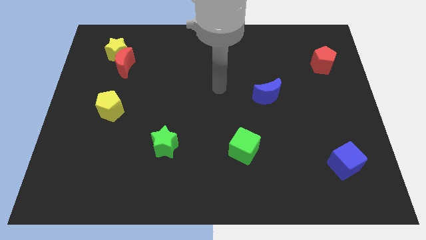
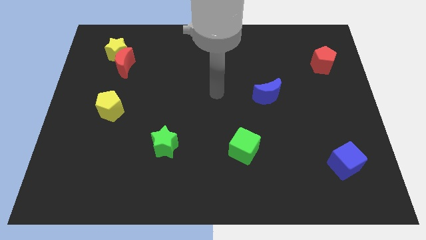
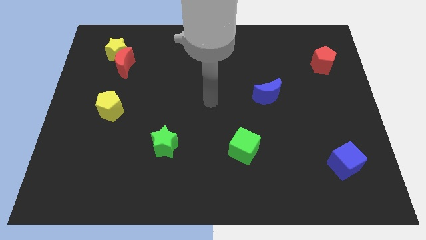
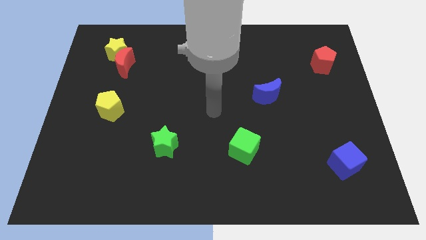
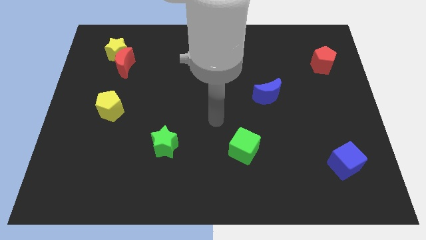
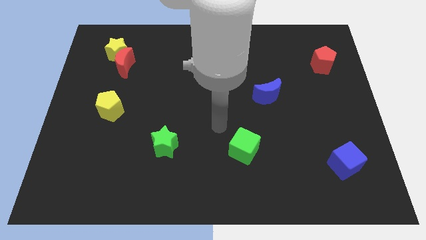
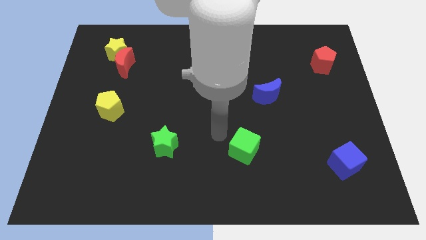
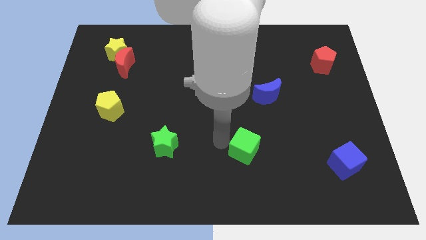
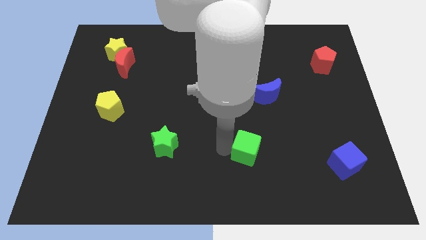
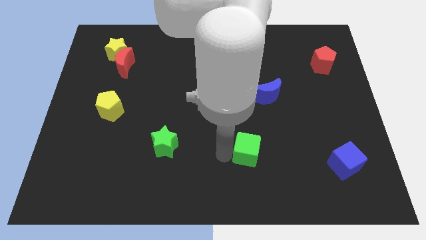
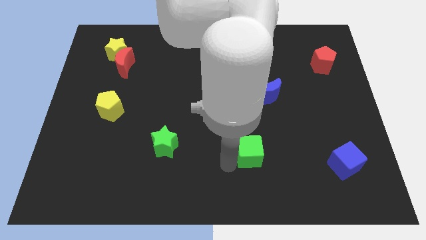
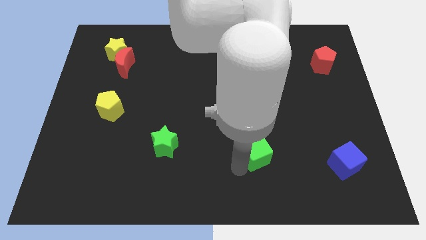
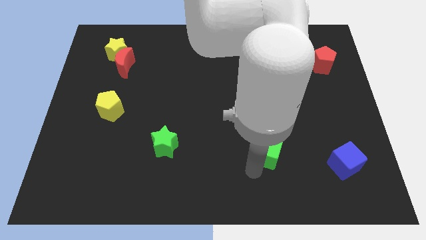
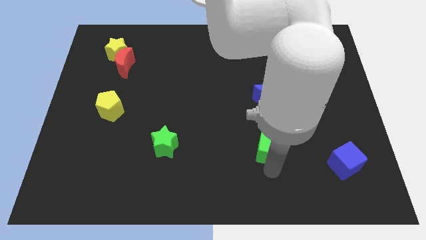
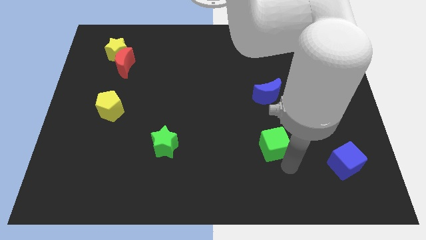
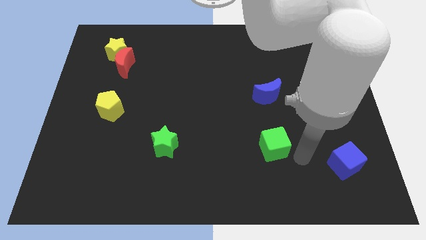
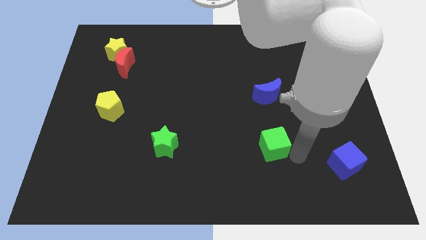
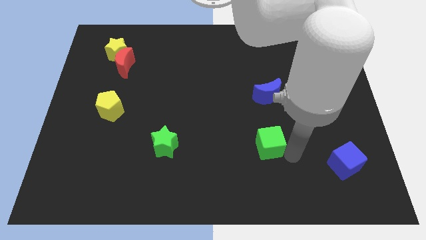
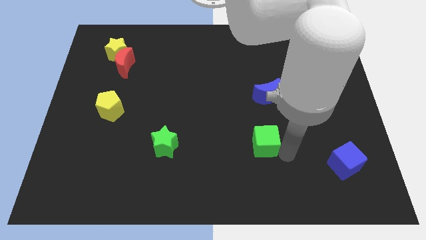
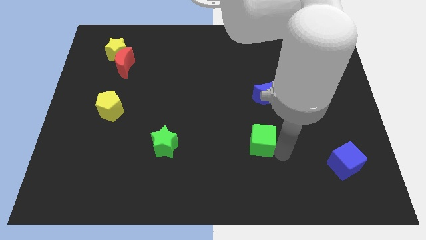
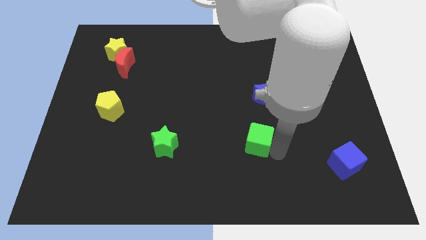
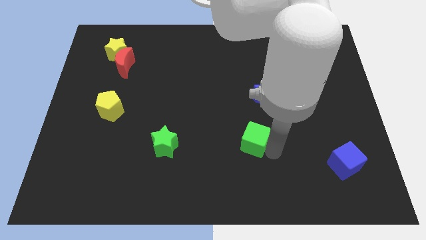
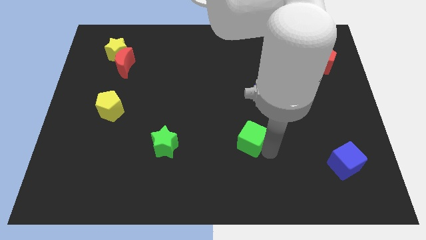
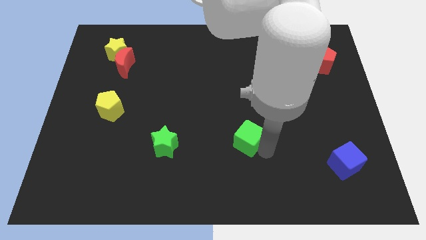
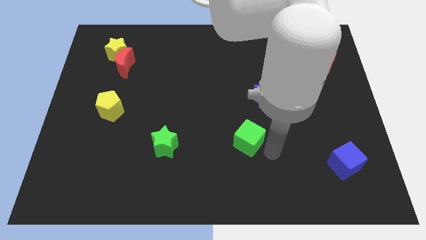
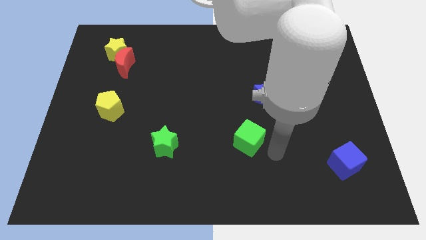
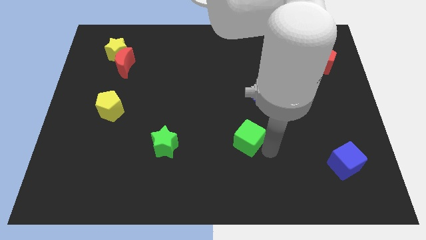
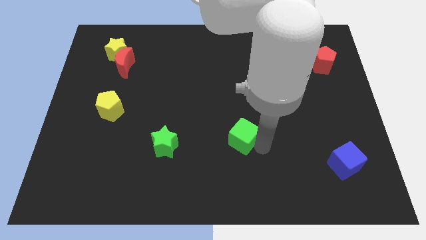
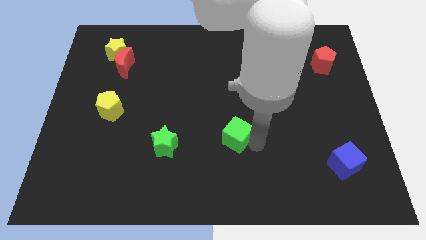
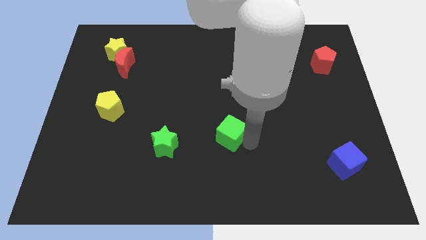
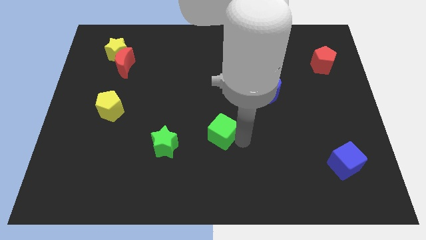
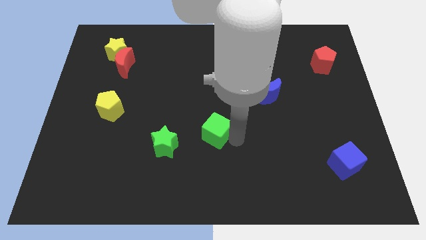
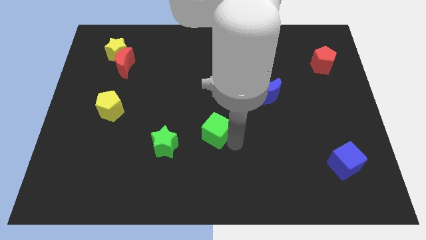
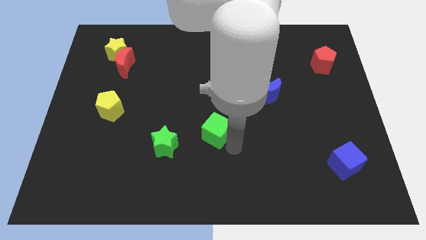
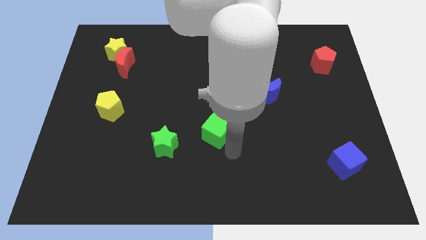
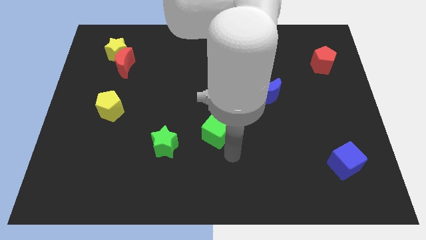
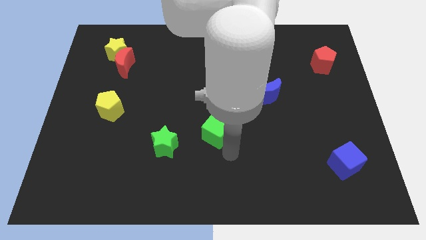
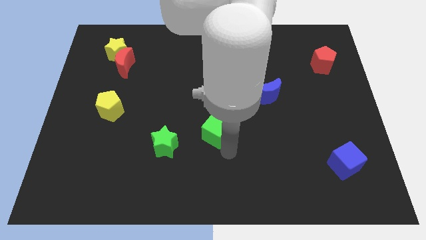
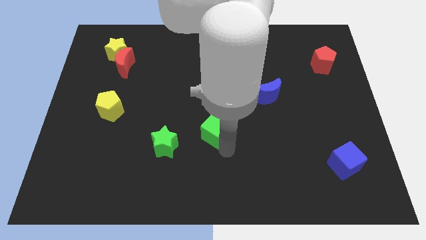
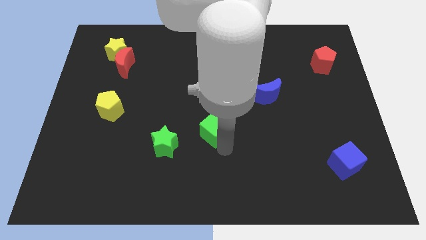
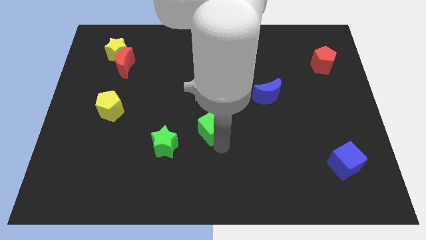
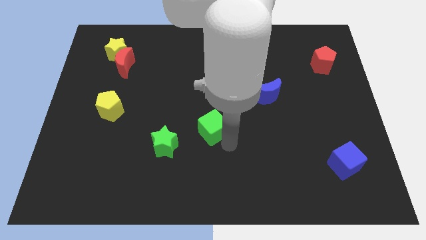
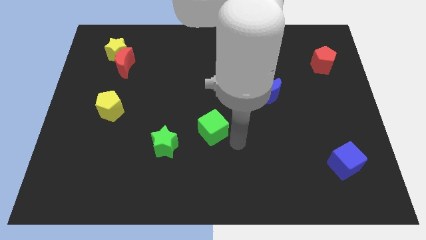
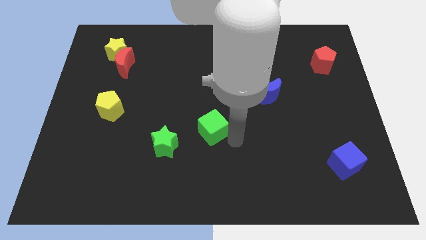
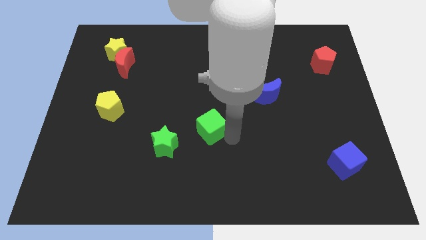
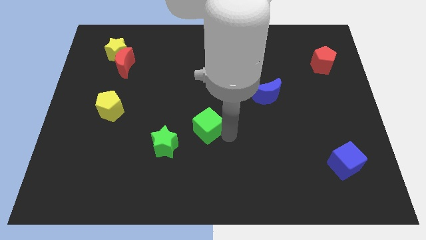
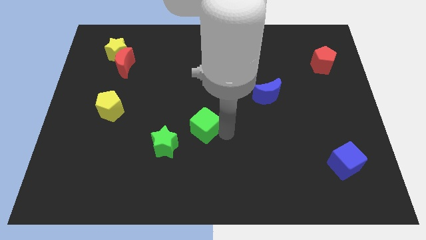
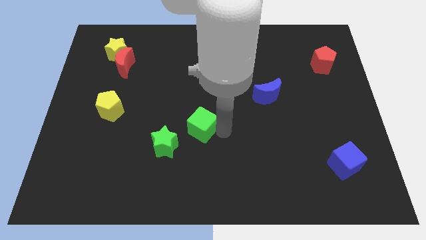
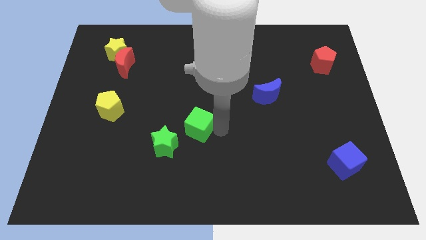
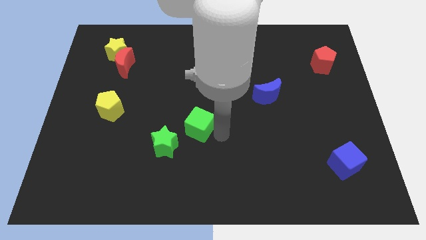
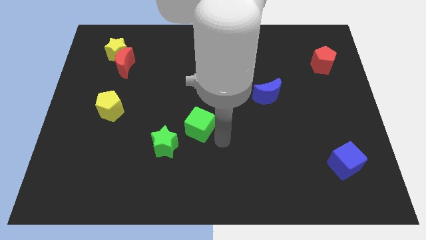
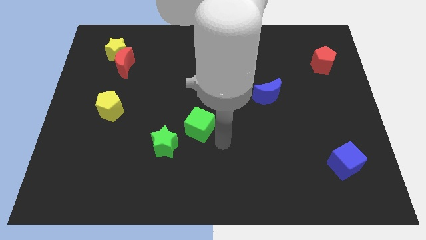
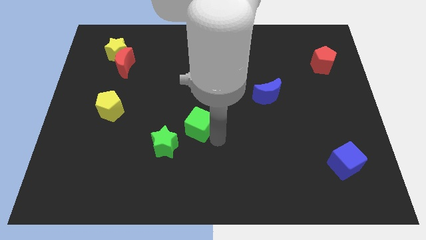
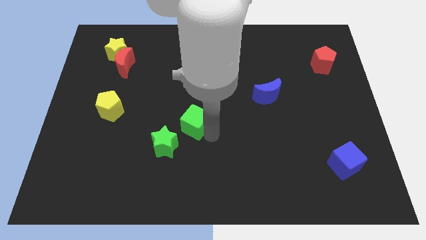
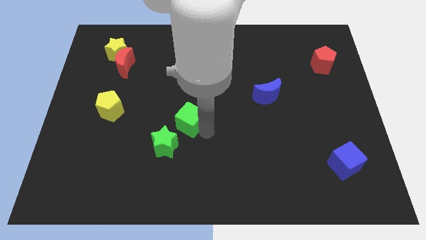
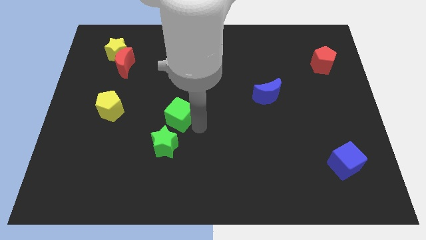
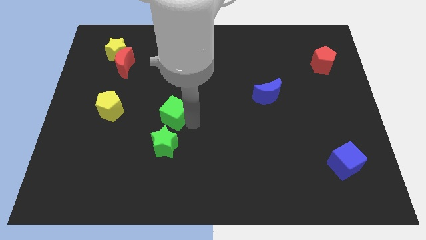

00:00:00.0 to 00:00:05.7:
push the green cube just right of the yellow pentagon

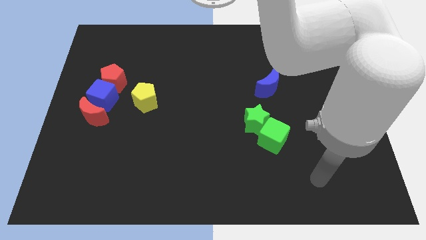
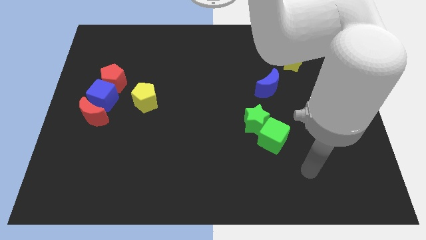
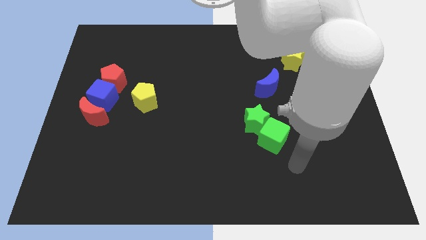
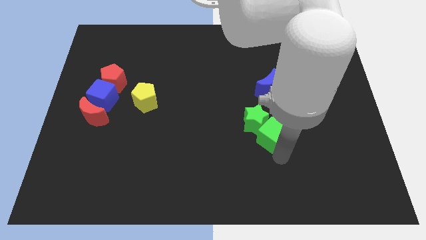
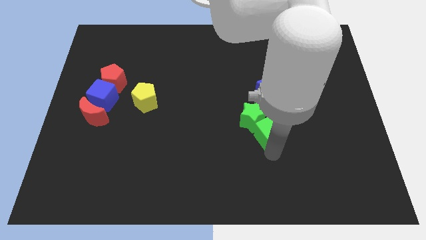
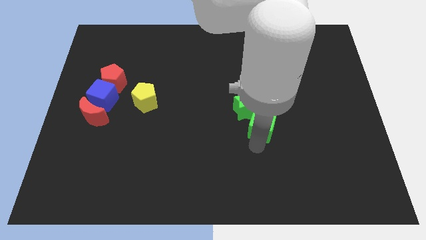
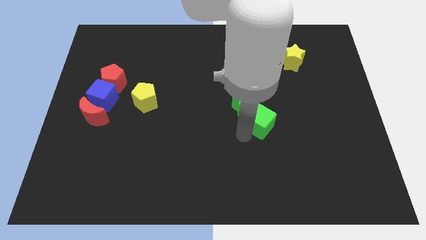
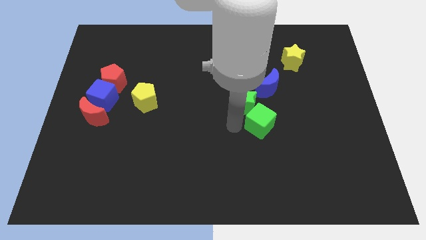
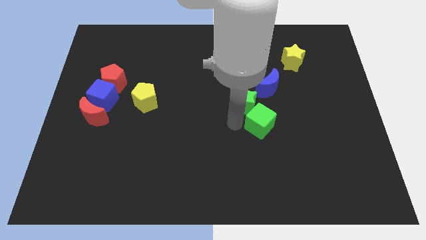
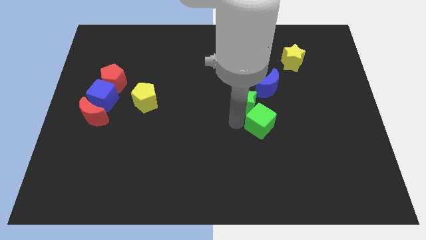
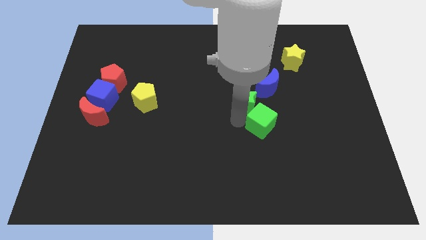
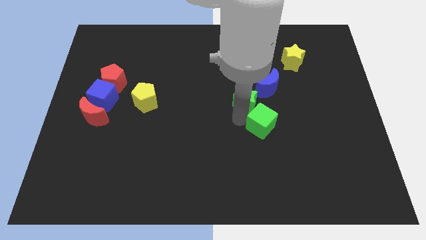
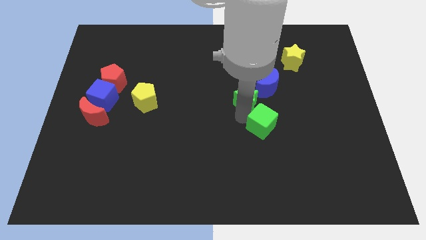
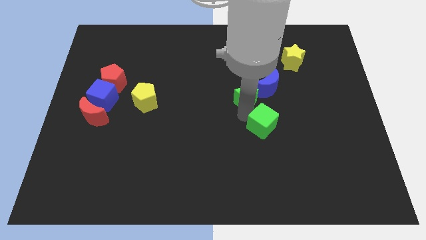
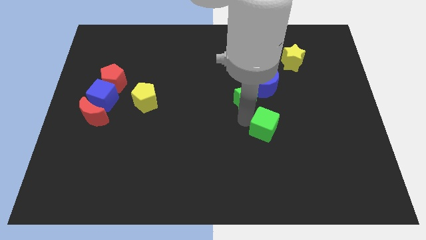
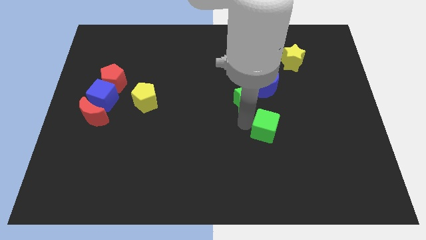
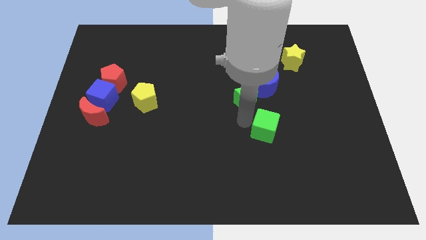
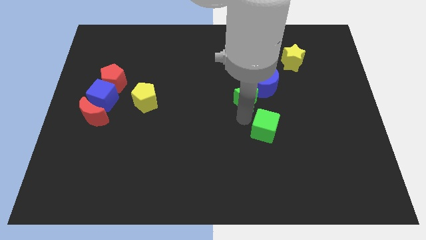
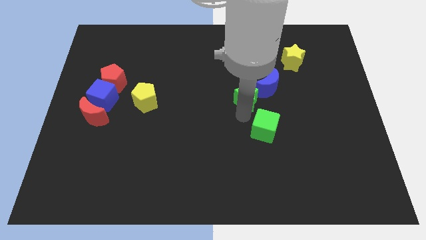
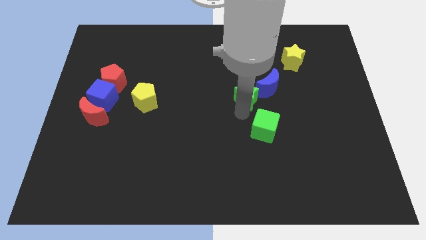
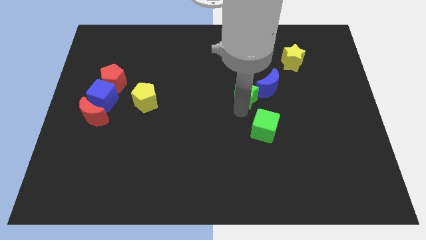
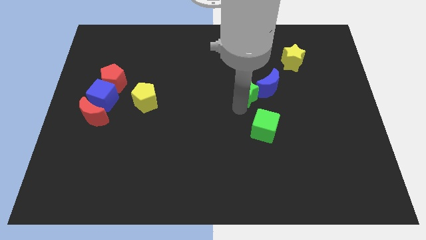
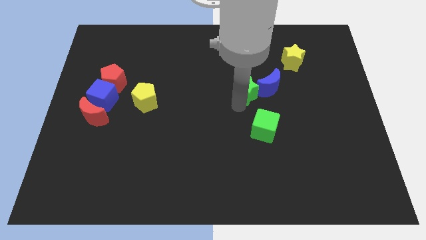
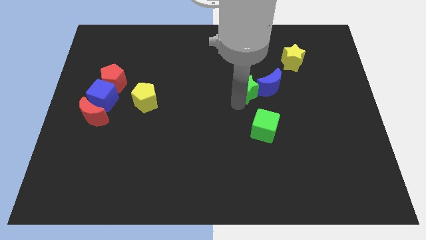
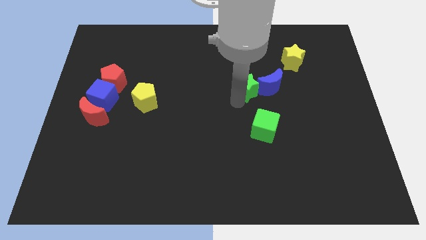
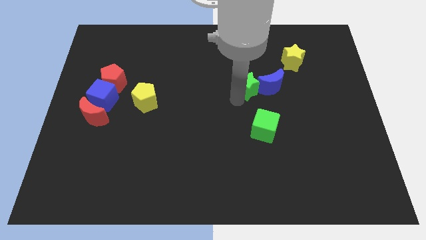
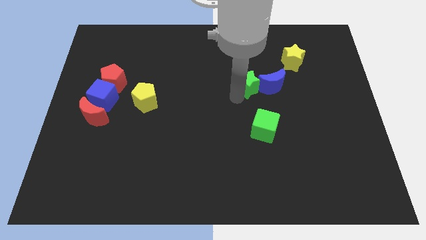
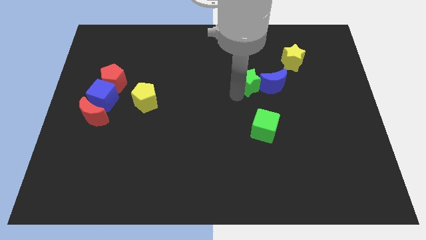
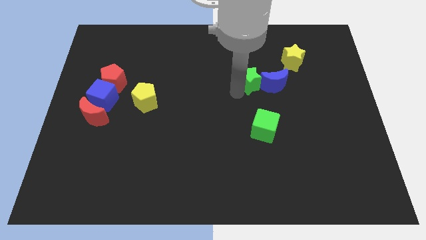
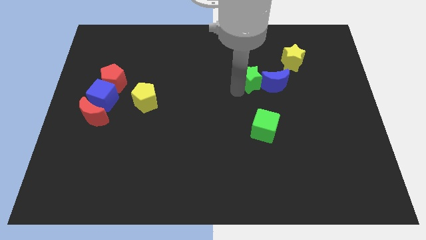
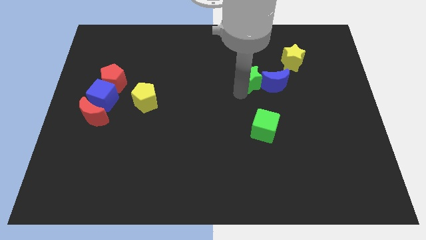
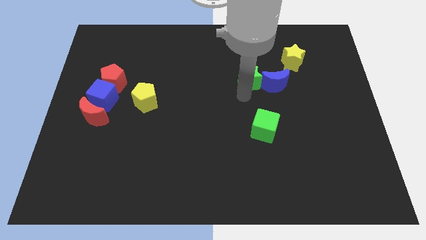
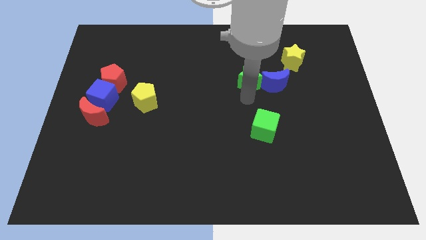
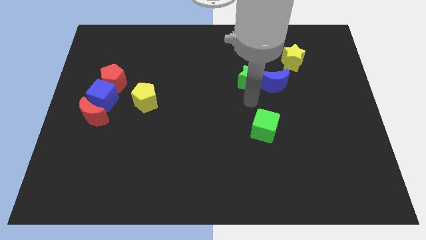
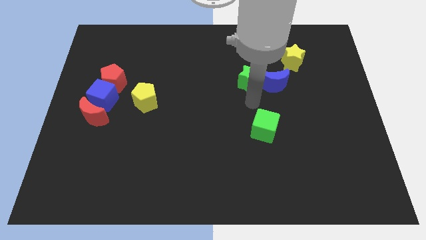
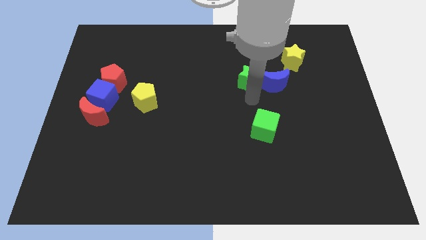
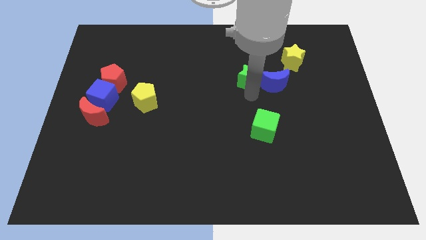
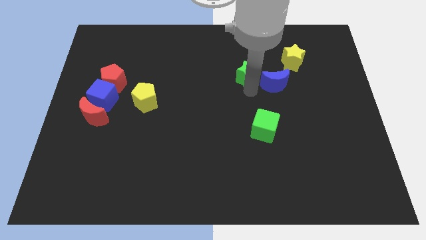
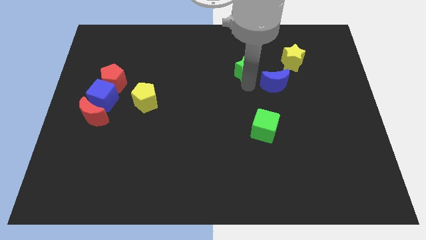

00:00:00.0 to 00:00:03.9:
move the green star to the left side of the yellow star
